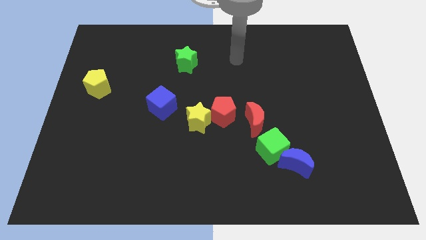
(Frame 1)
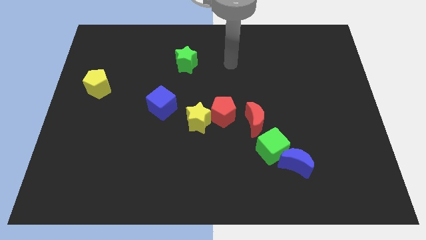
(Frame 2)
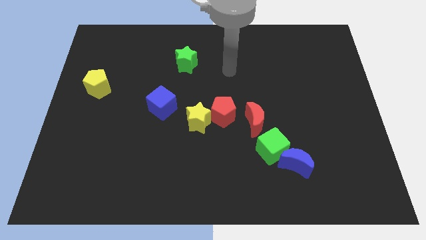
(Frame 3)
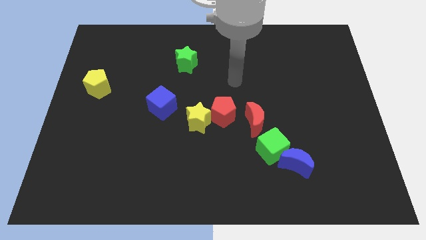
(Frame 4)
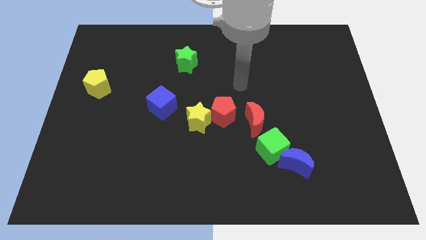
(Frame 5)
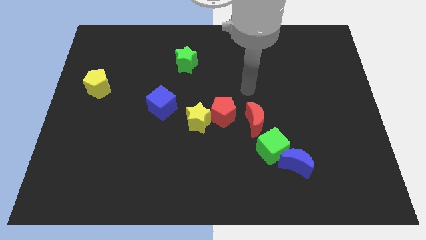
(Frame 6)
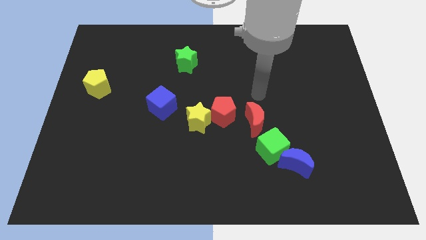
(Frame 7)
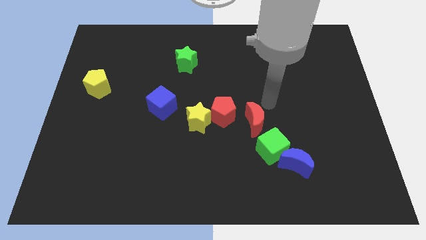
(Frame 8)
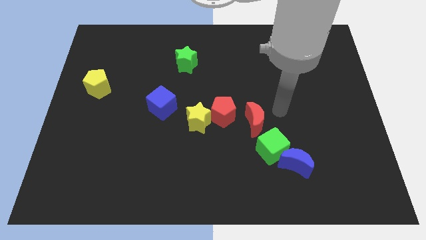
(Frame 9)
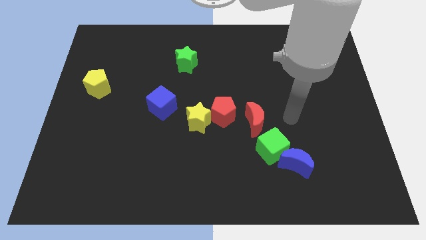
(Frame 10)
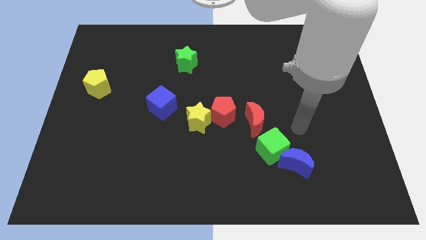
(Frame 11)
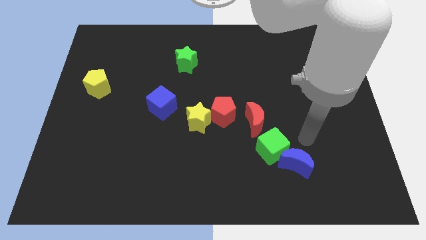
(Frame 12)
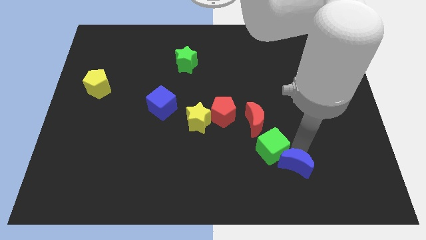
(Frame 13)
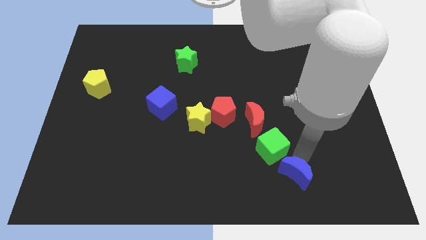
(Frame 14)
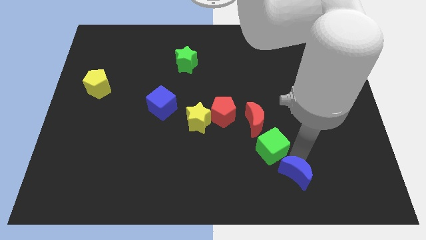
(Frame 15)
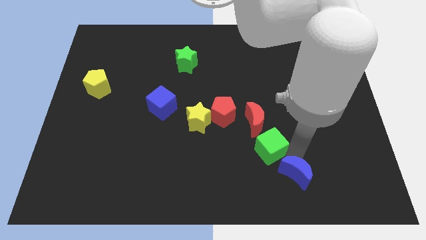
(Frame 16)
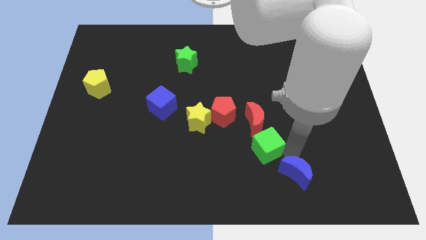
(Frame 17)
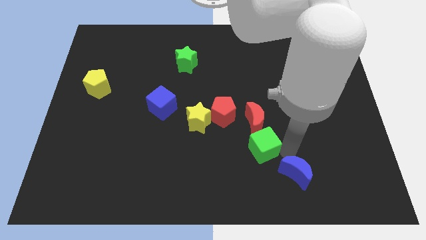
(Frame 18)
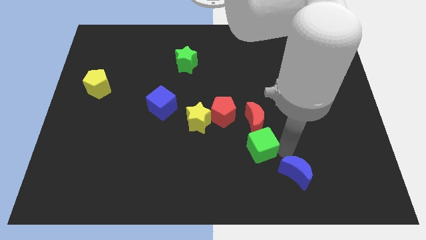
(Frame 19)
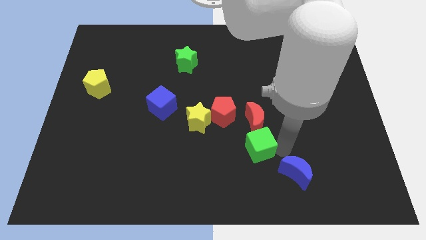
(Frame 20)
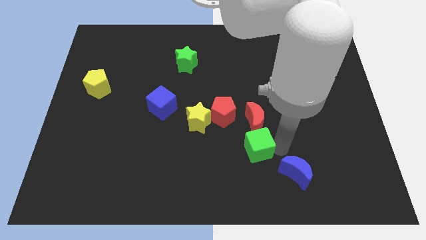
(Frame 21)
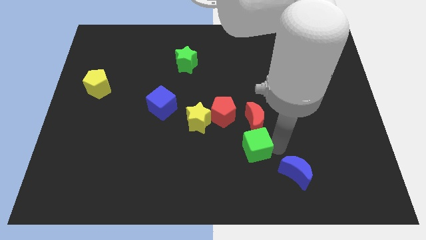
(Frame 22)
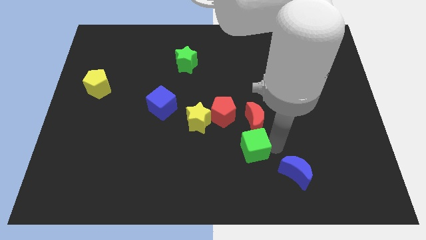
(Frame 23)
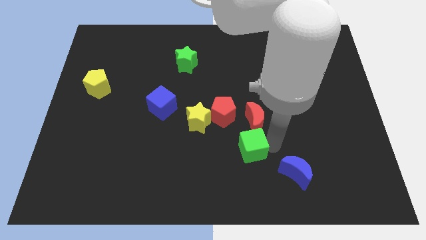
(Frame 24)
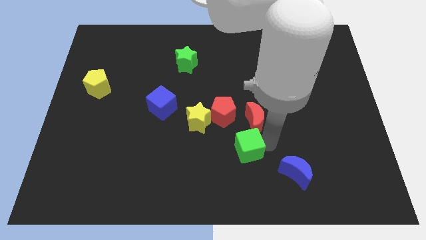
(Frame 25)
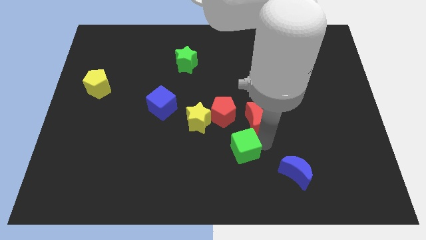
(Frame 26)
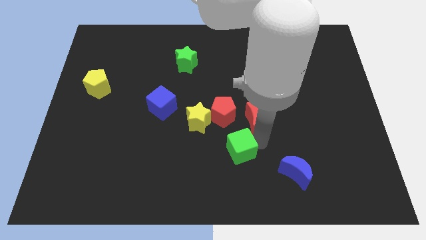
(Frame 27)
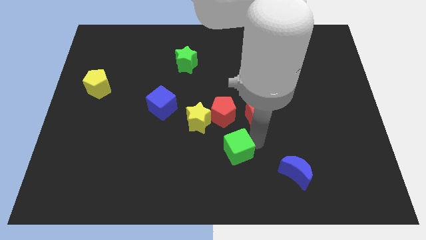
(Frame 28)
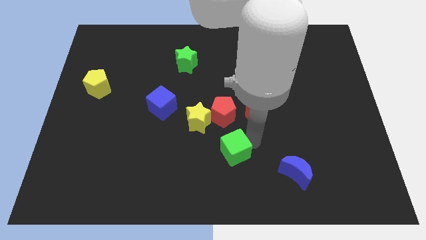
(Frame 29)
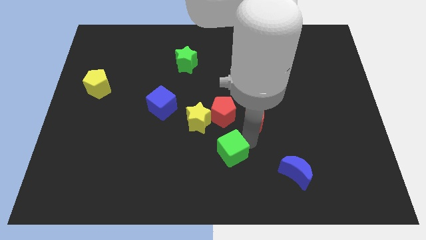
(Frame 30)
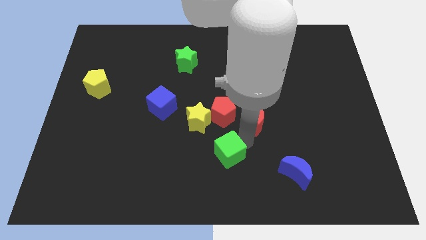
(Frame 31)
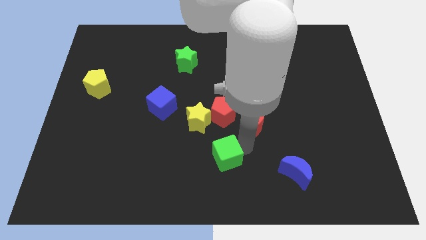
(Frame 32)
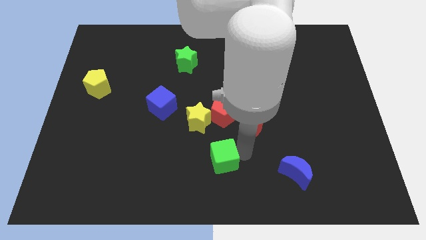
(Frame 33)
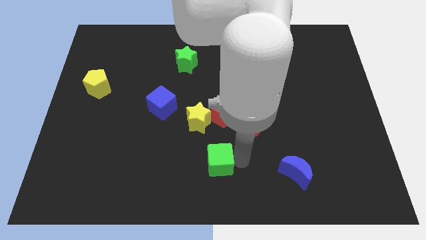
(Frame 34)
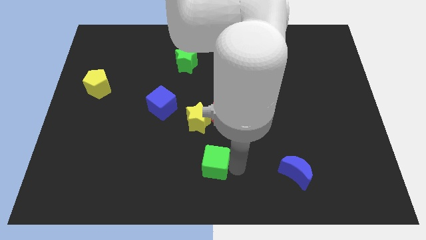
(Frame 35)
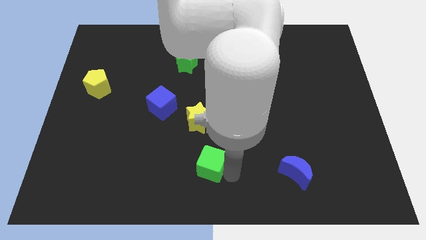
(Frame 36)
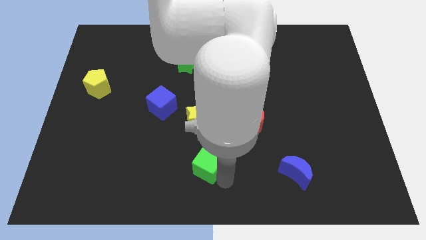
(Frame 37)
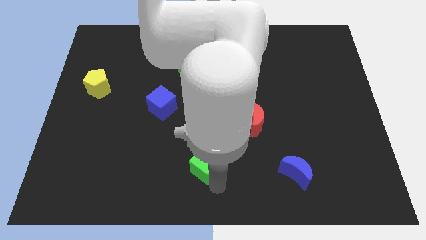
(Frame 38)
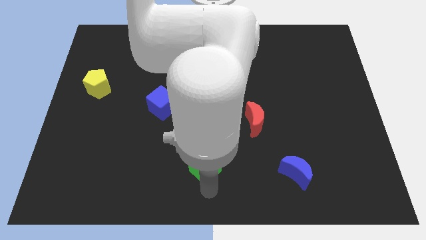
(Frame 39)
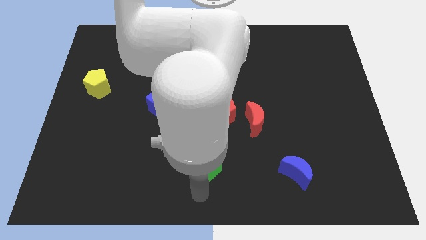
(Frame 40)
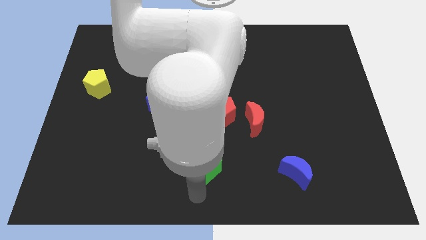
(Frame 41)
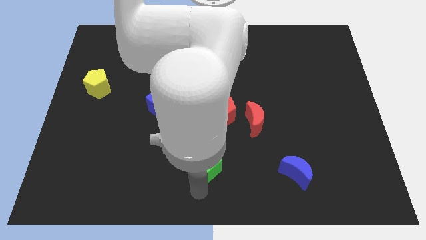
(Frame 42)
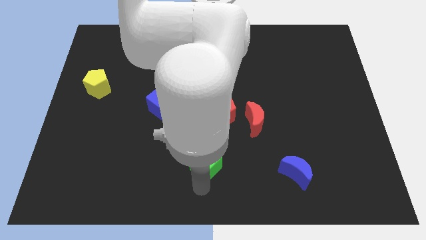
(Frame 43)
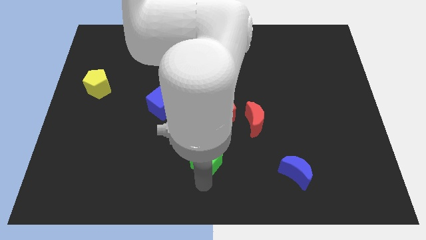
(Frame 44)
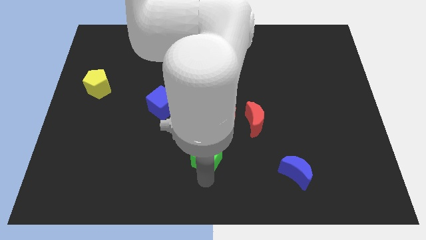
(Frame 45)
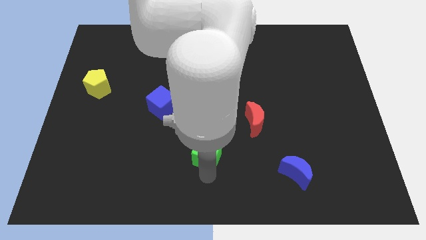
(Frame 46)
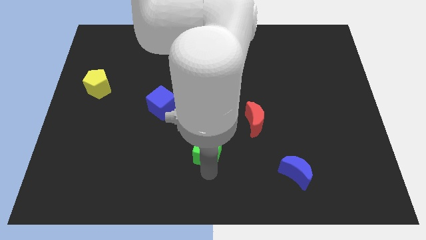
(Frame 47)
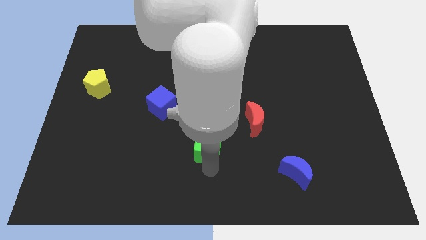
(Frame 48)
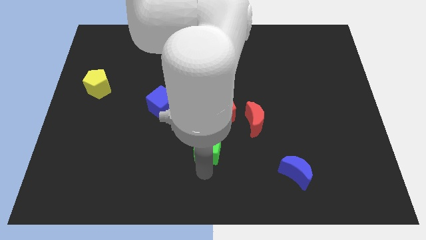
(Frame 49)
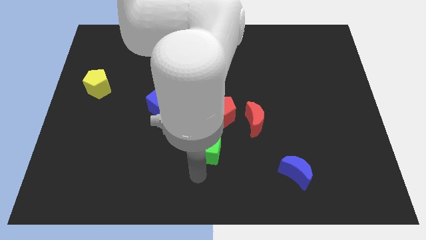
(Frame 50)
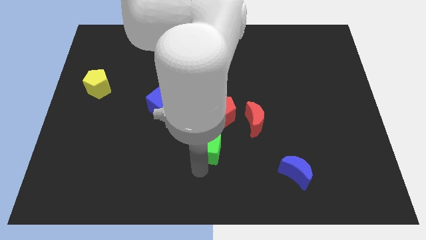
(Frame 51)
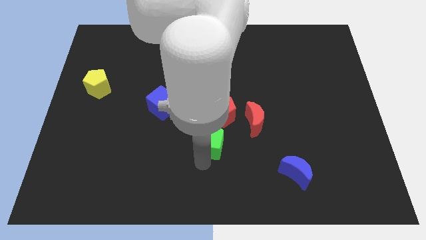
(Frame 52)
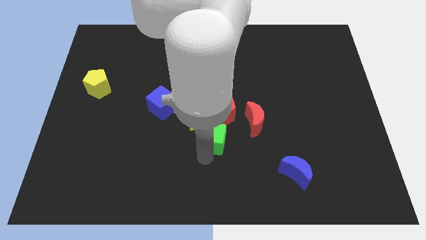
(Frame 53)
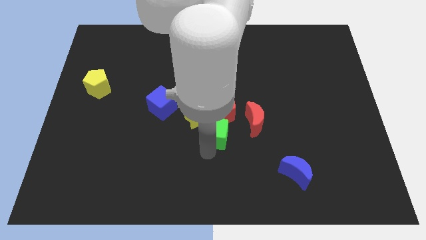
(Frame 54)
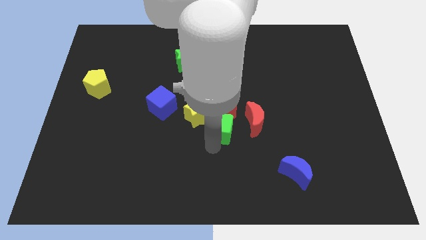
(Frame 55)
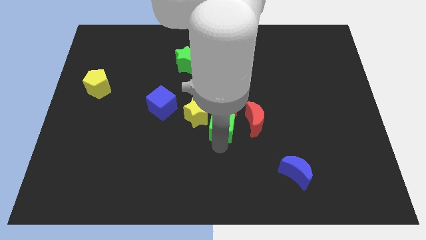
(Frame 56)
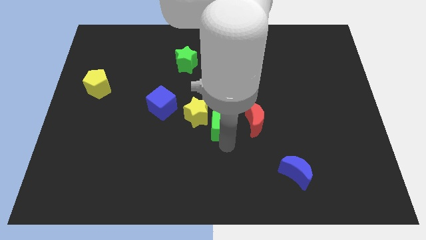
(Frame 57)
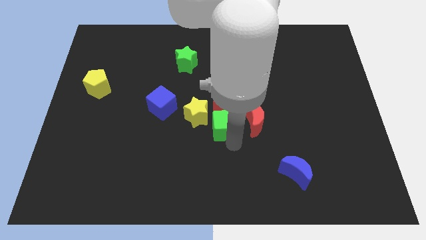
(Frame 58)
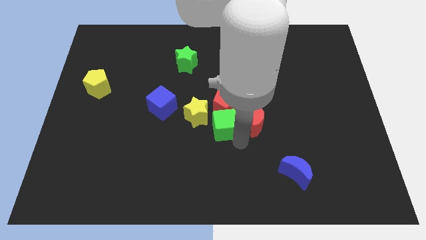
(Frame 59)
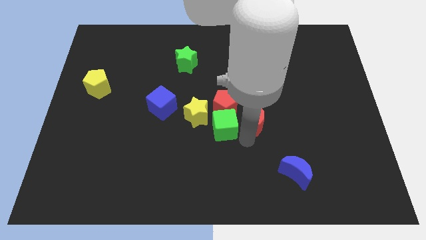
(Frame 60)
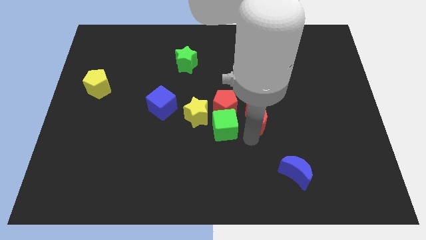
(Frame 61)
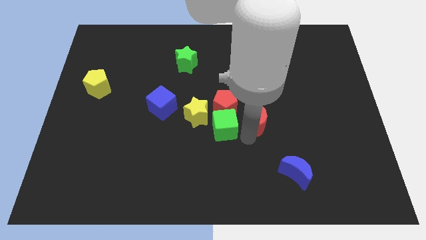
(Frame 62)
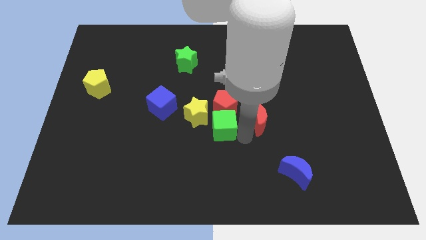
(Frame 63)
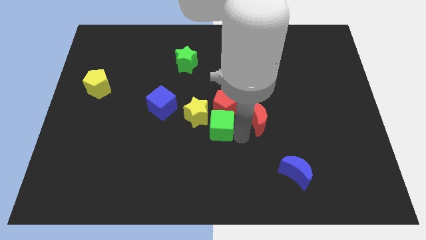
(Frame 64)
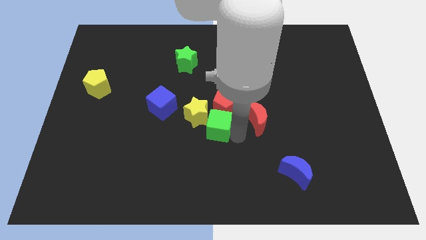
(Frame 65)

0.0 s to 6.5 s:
push the green cube to the yellow star
